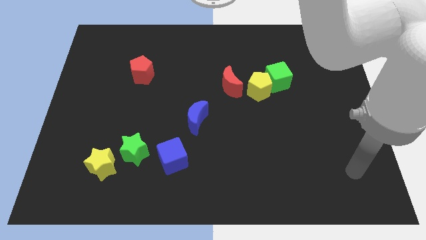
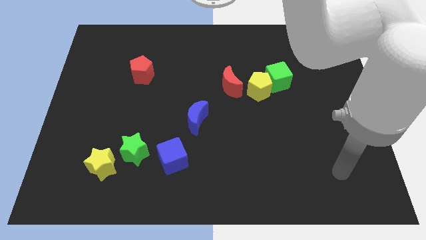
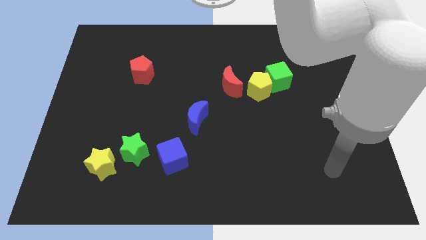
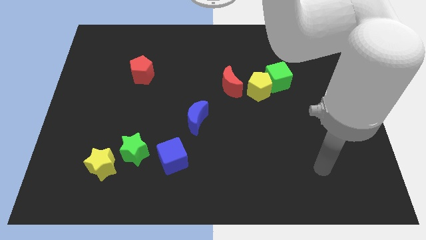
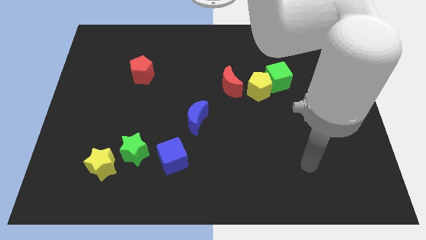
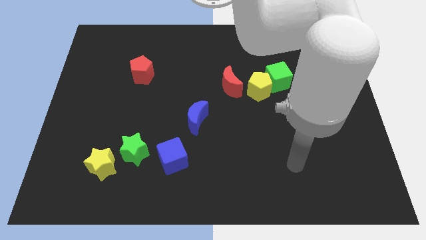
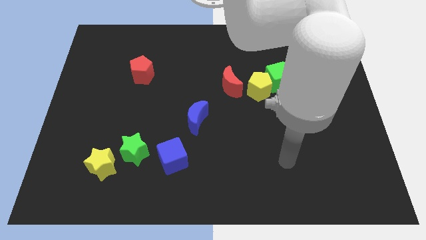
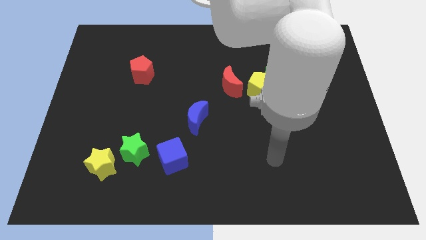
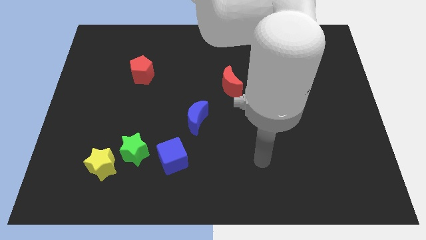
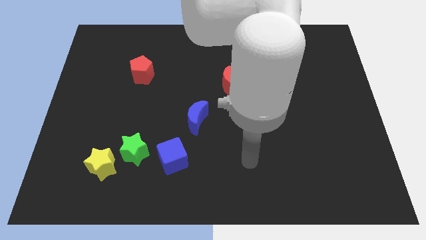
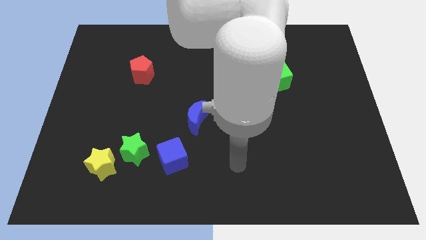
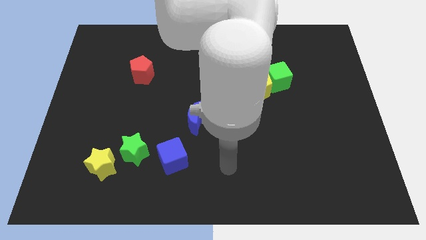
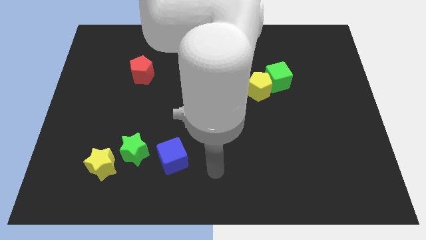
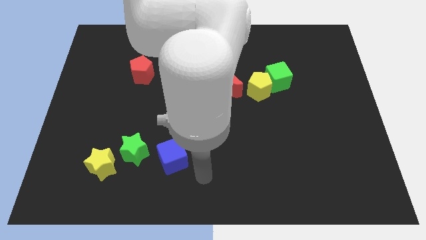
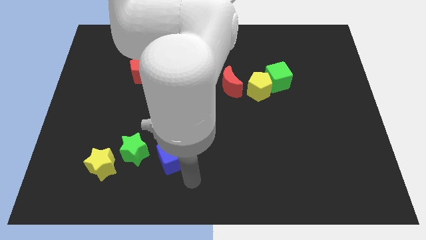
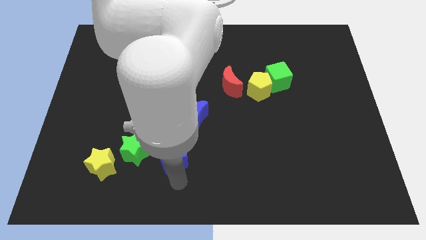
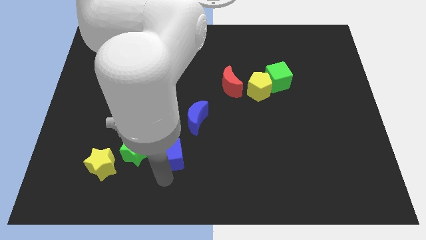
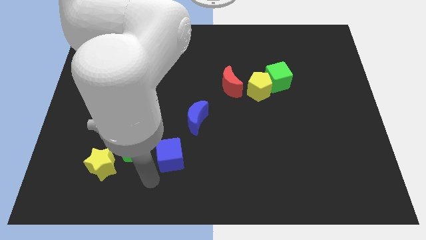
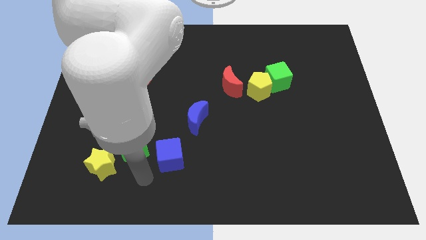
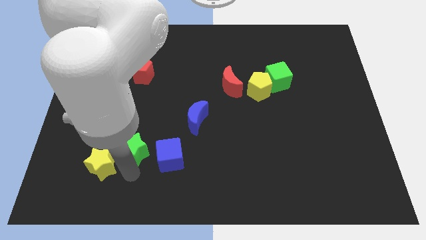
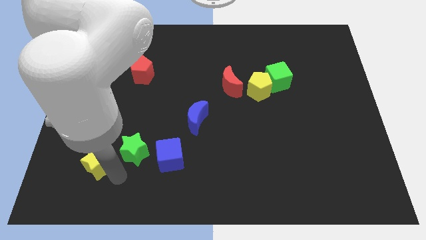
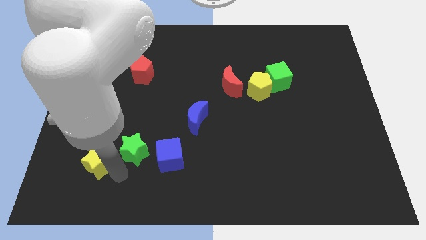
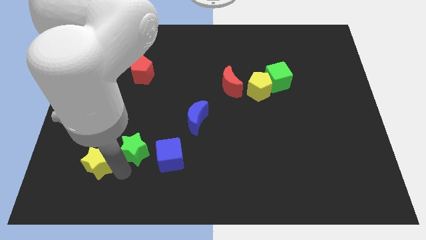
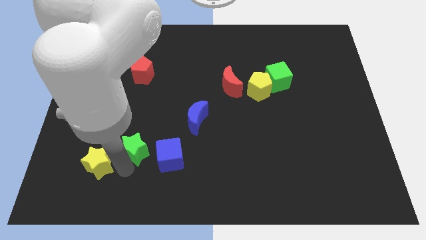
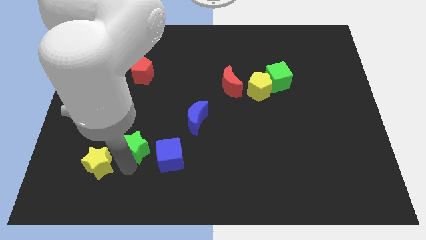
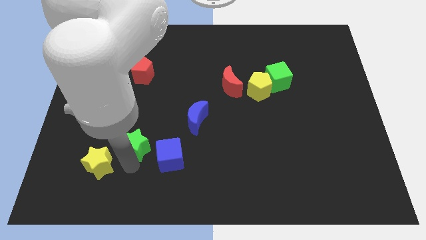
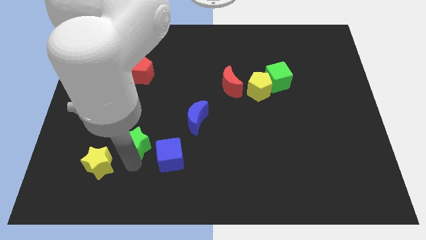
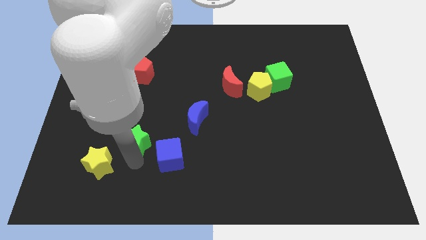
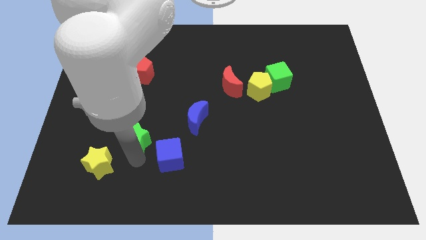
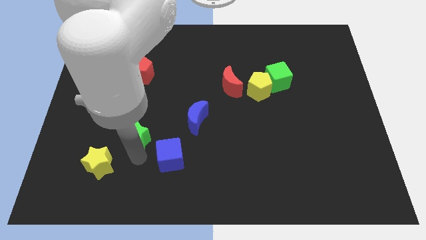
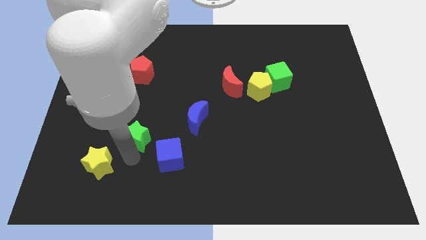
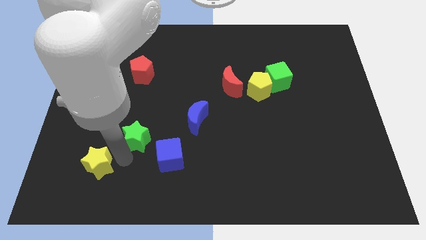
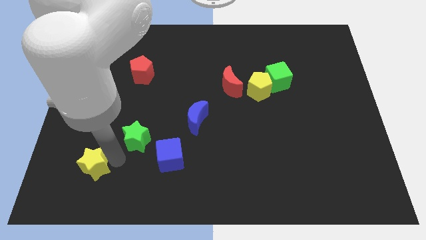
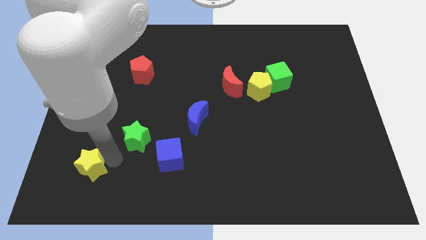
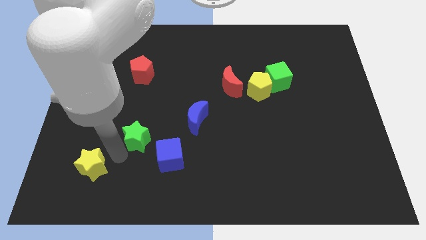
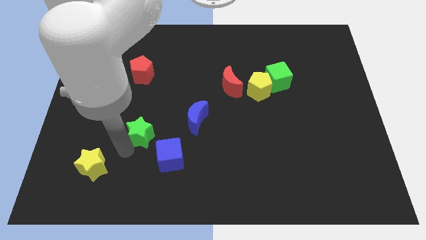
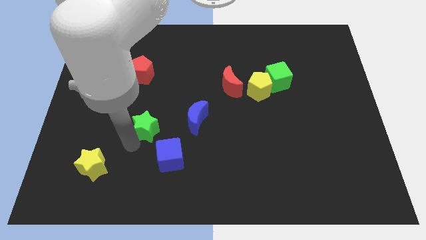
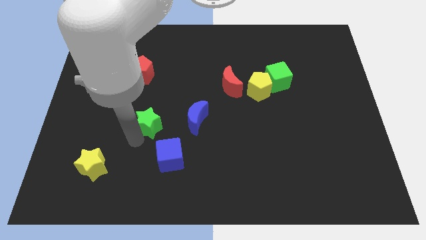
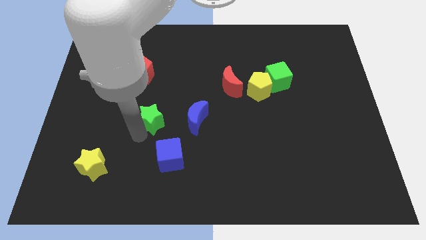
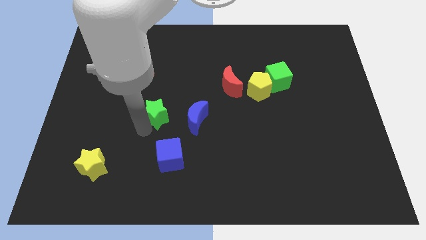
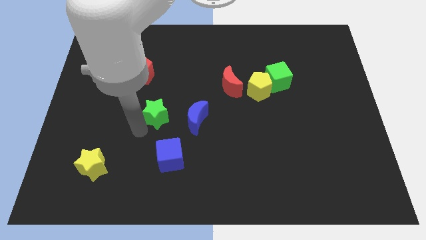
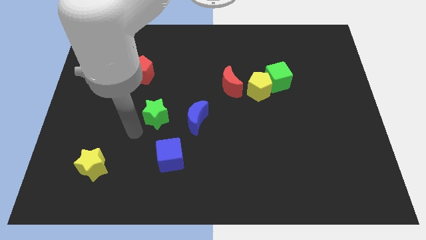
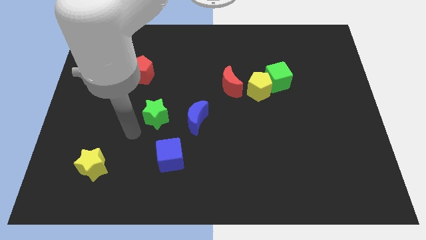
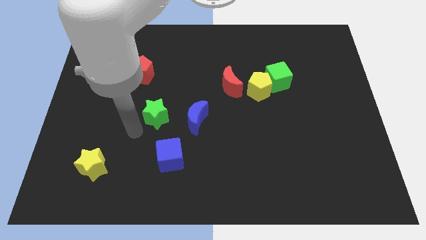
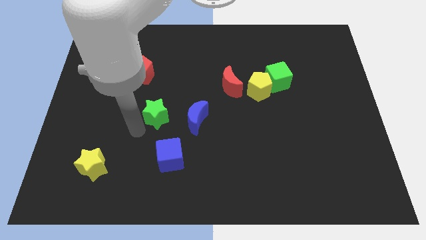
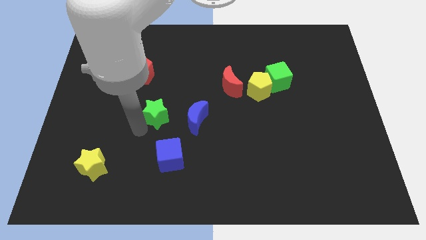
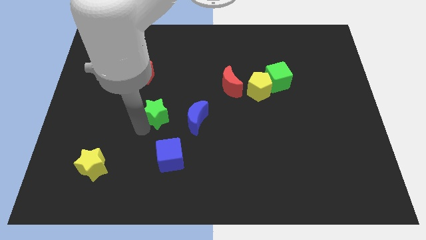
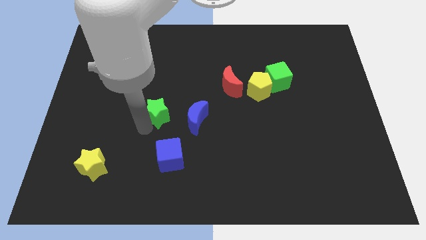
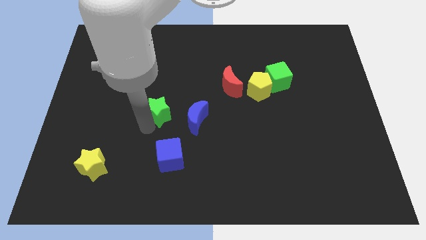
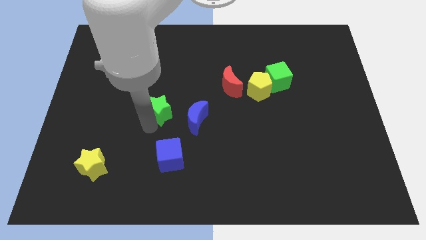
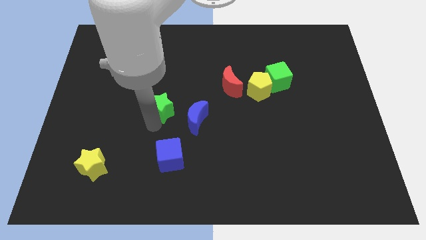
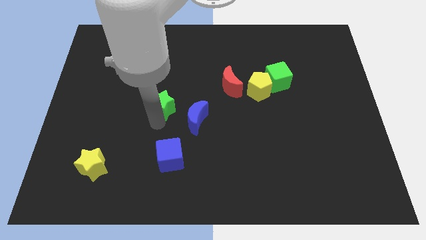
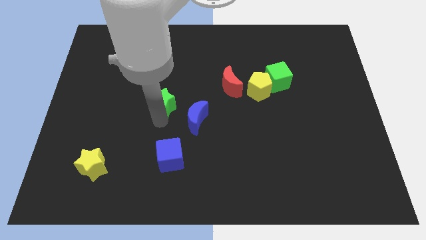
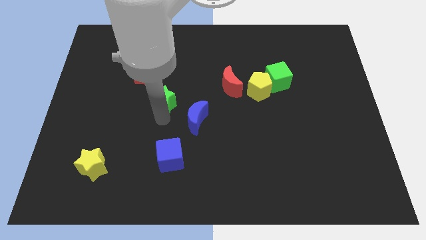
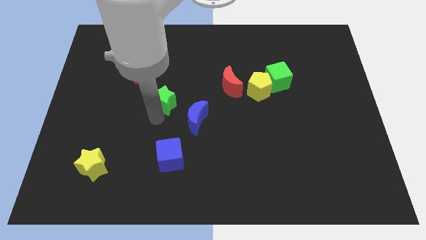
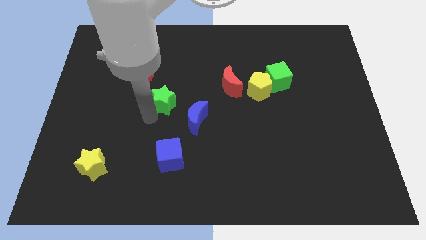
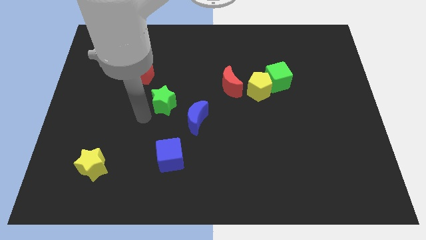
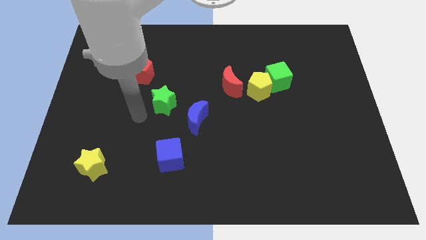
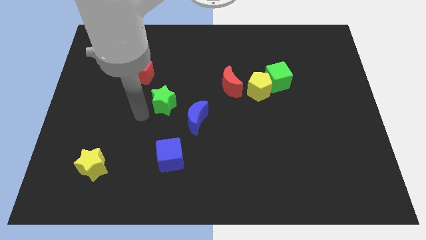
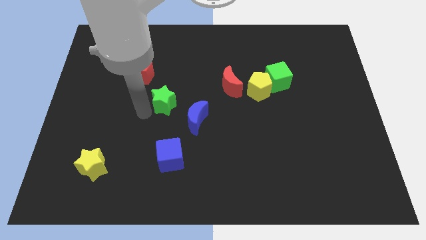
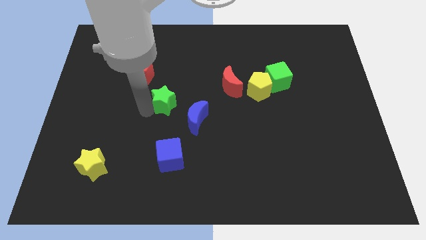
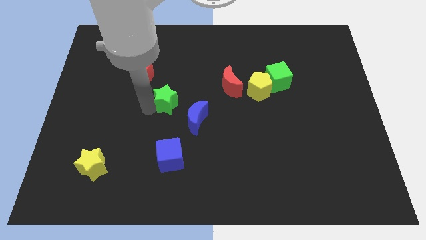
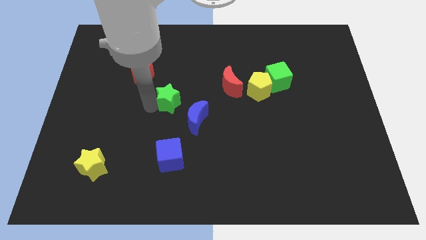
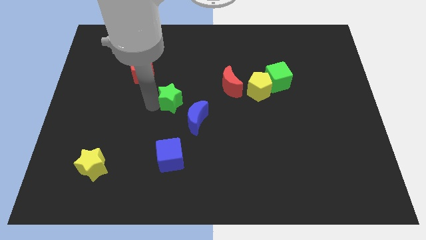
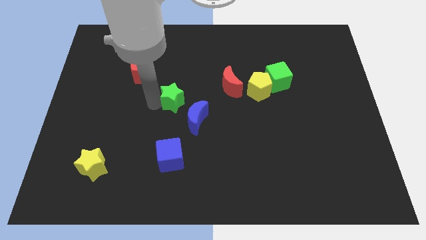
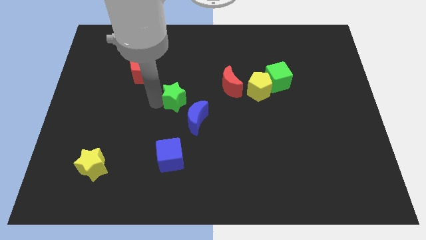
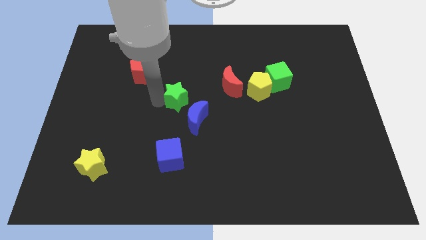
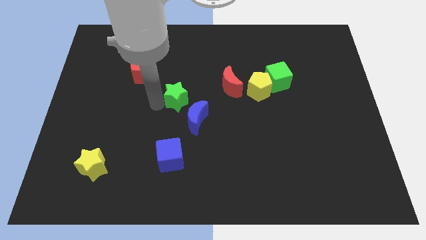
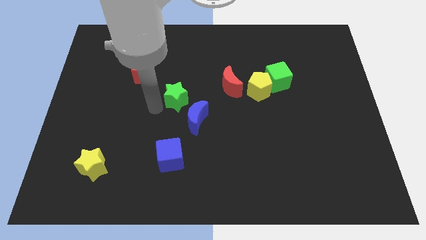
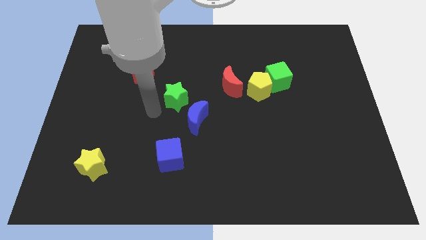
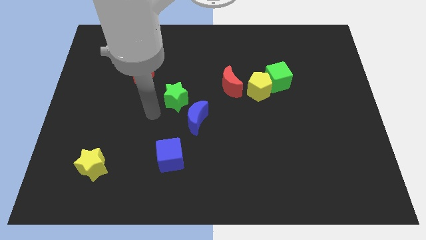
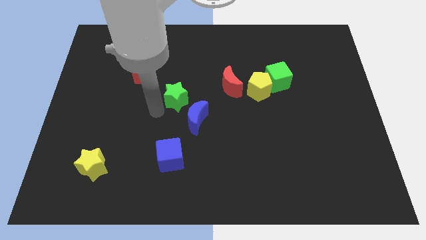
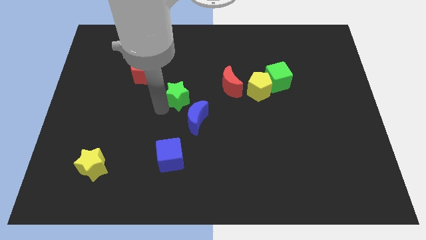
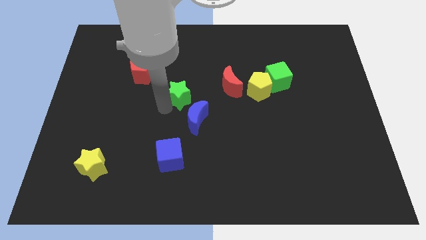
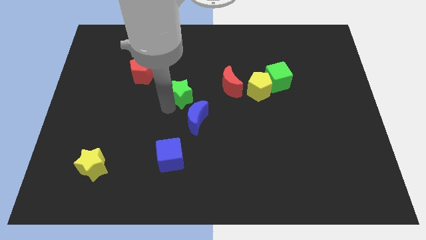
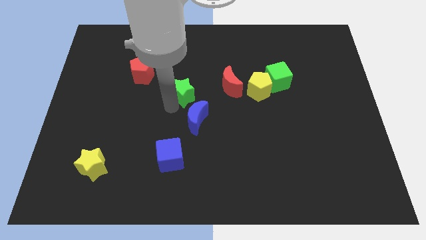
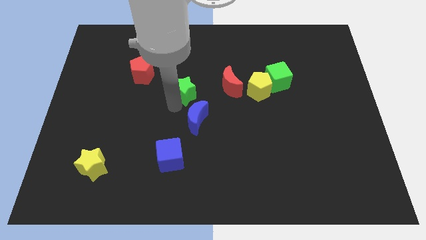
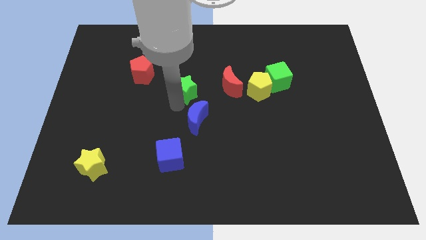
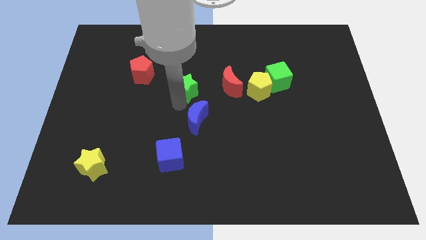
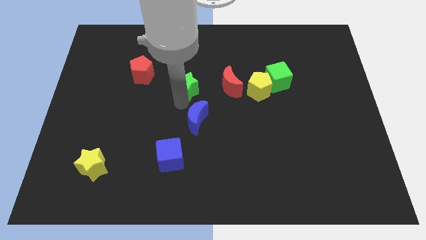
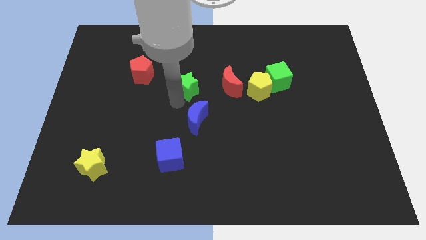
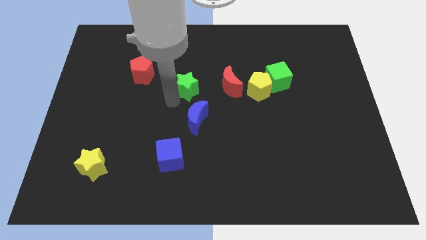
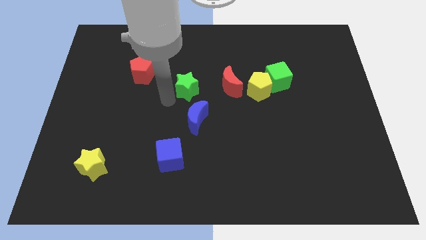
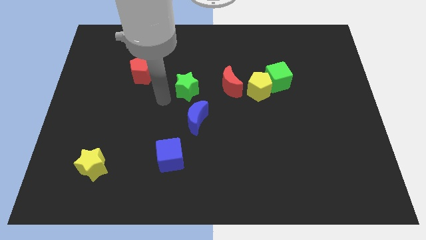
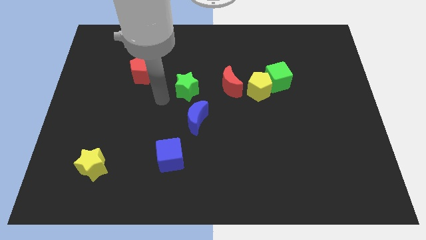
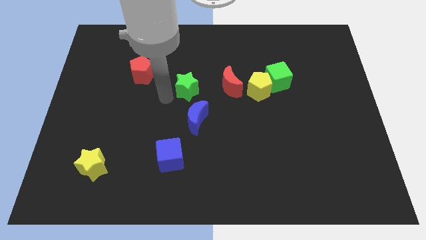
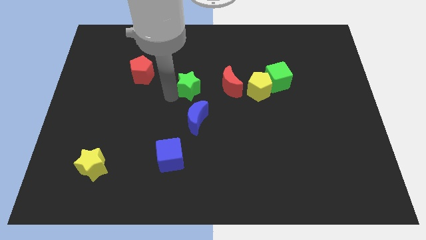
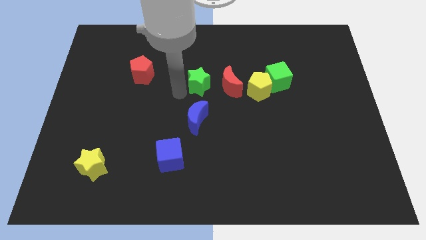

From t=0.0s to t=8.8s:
push the green star up and right
